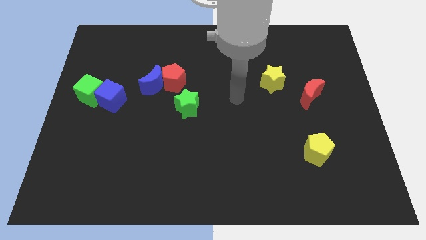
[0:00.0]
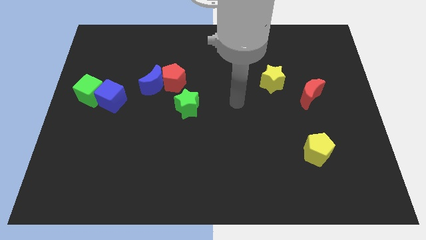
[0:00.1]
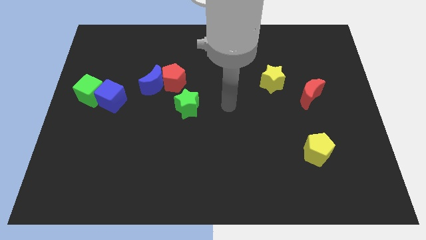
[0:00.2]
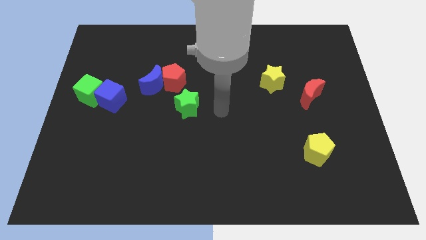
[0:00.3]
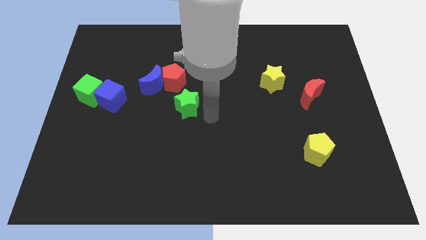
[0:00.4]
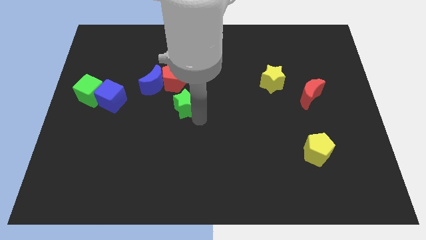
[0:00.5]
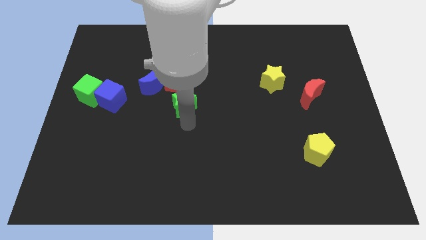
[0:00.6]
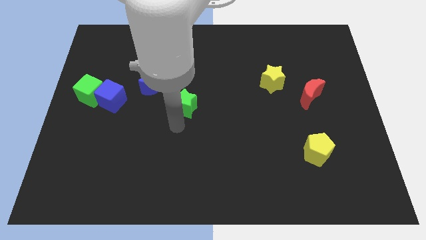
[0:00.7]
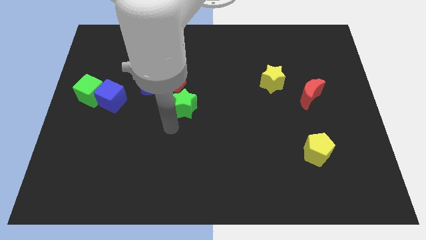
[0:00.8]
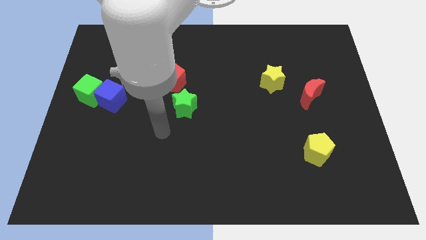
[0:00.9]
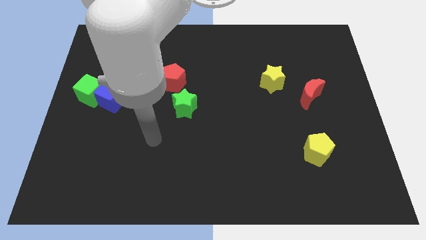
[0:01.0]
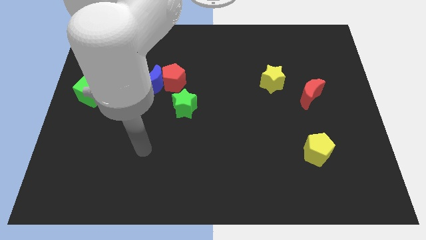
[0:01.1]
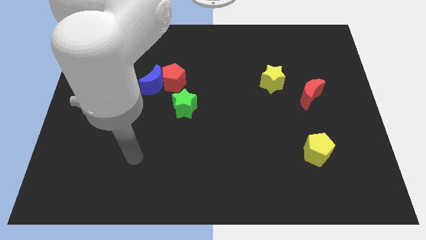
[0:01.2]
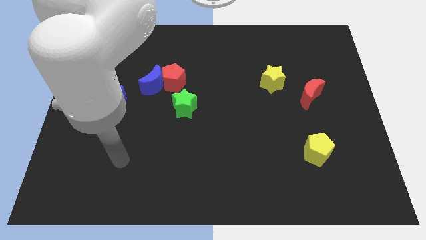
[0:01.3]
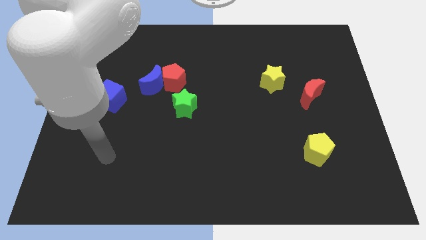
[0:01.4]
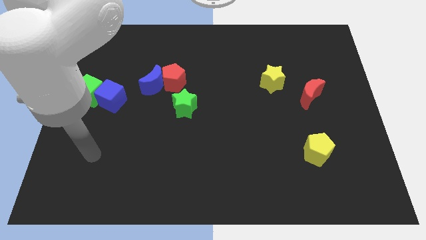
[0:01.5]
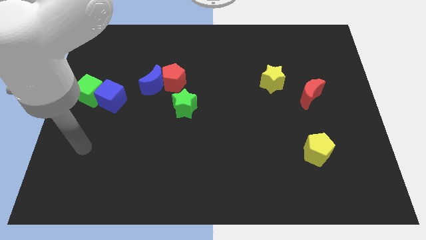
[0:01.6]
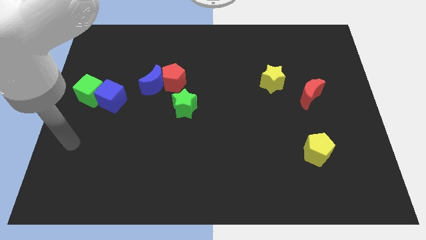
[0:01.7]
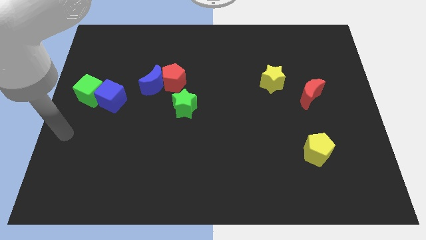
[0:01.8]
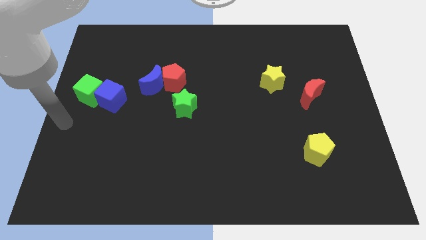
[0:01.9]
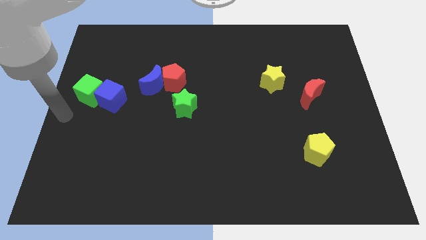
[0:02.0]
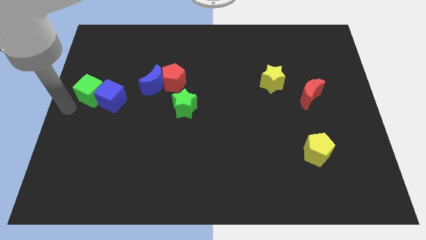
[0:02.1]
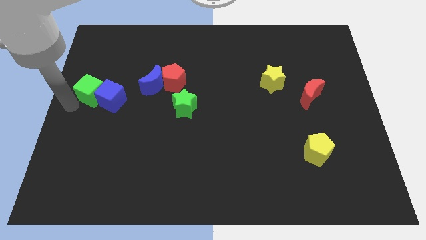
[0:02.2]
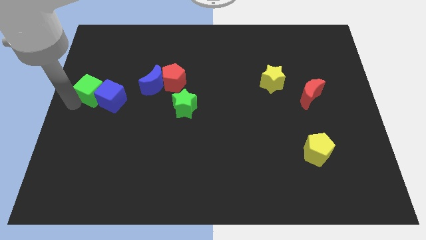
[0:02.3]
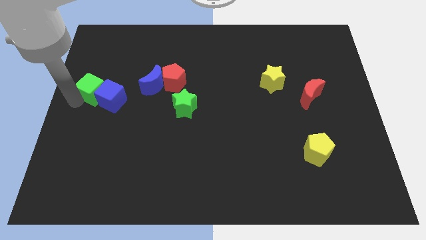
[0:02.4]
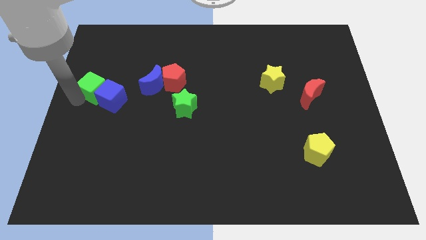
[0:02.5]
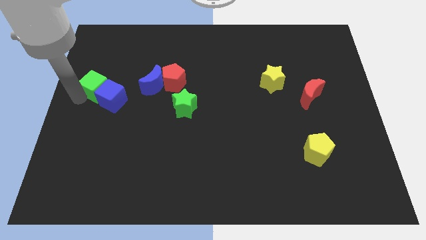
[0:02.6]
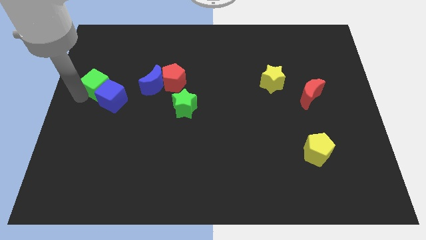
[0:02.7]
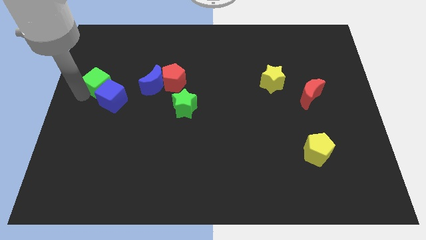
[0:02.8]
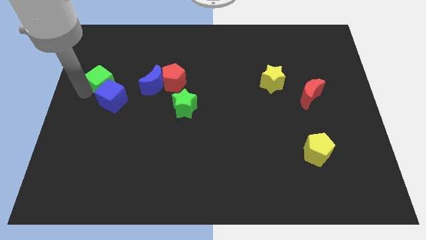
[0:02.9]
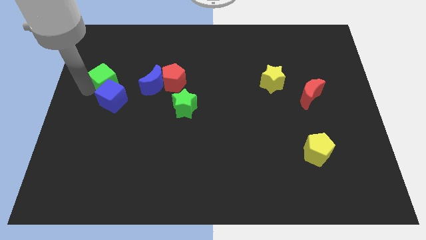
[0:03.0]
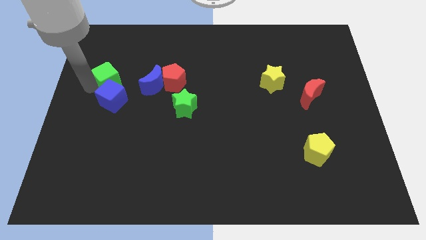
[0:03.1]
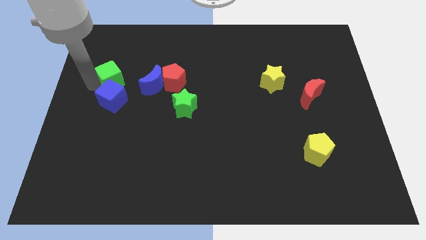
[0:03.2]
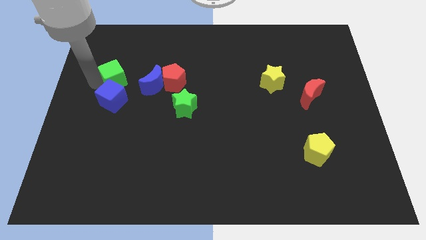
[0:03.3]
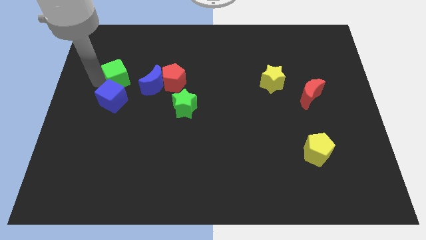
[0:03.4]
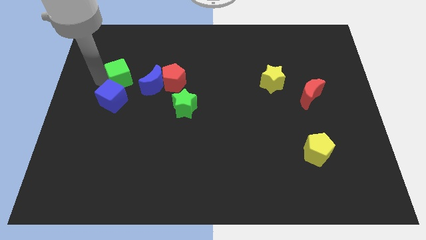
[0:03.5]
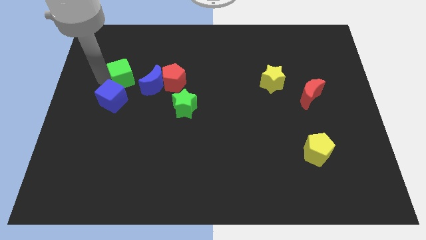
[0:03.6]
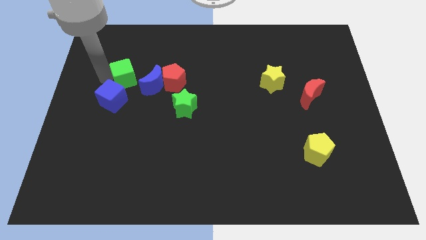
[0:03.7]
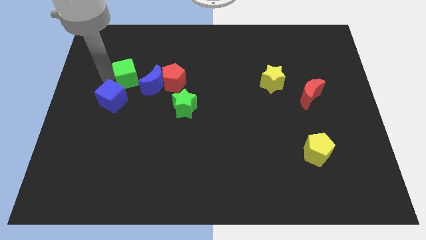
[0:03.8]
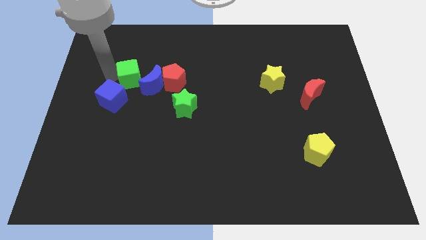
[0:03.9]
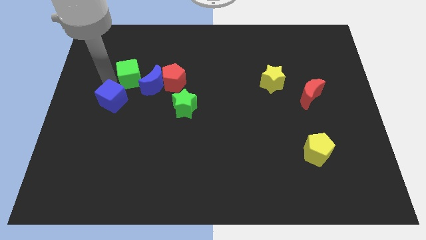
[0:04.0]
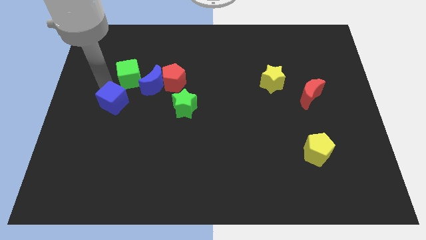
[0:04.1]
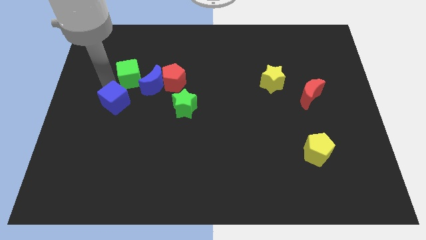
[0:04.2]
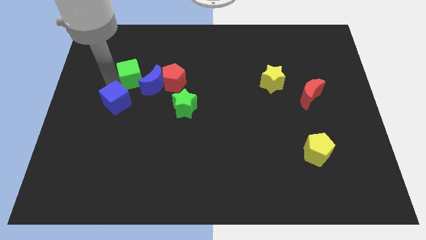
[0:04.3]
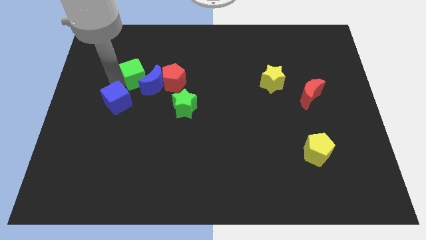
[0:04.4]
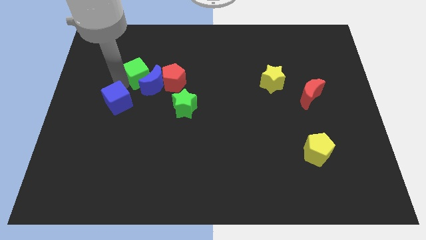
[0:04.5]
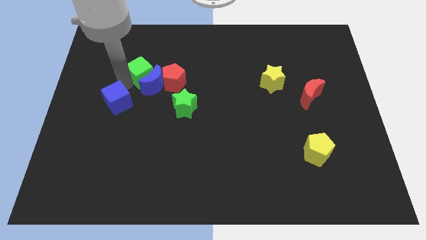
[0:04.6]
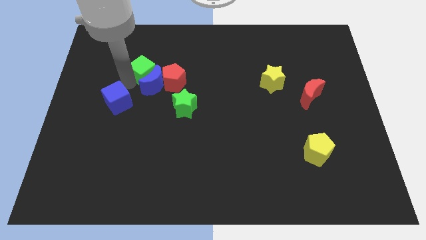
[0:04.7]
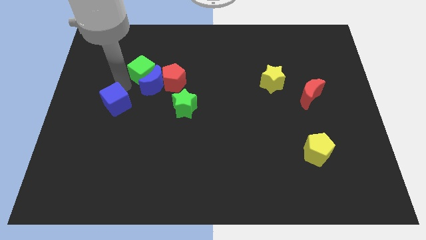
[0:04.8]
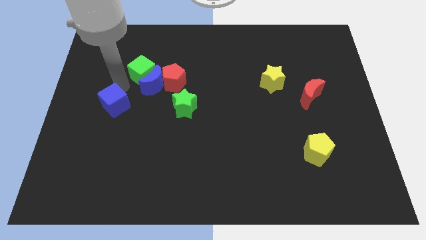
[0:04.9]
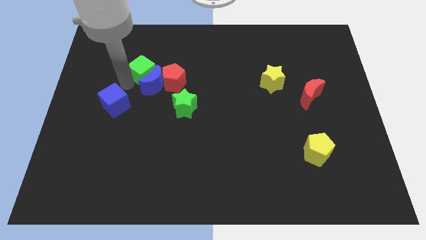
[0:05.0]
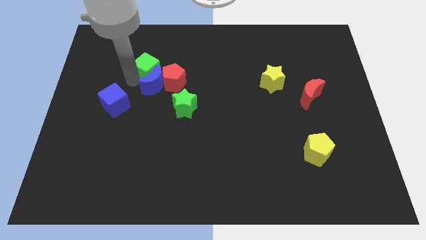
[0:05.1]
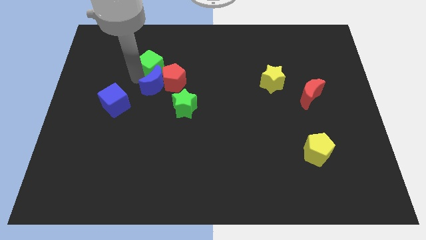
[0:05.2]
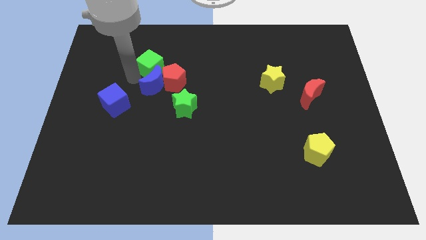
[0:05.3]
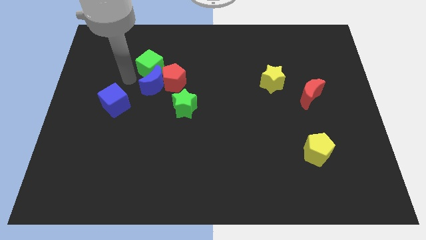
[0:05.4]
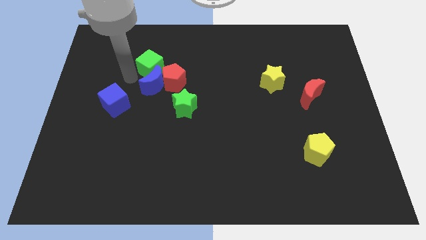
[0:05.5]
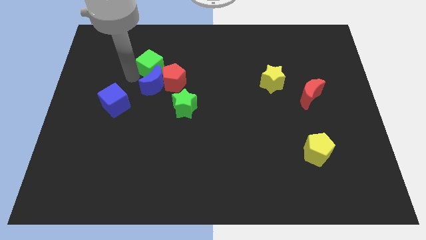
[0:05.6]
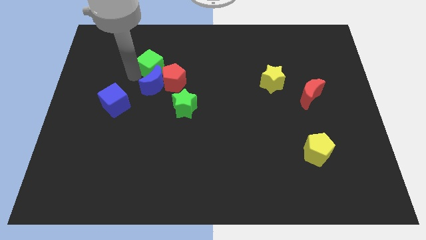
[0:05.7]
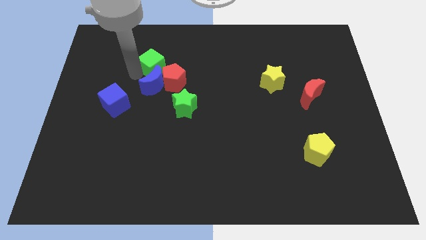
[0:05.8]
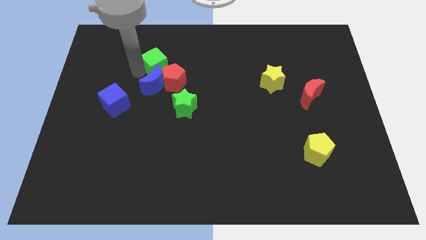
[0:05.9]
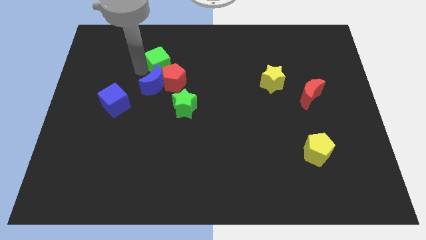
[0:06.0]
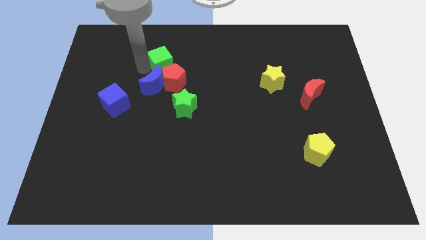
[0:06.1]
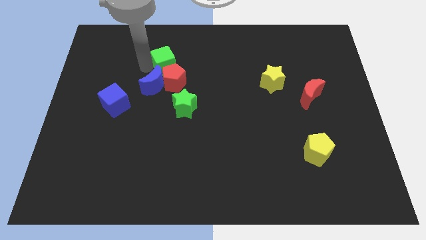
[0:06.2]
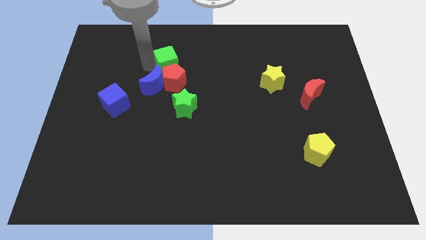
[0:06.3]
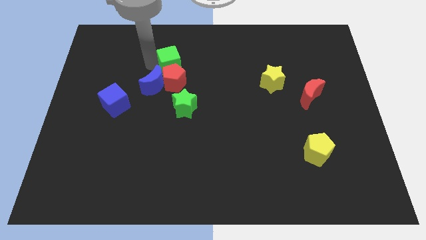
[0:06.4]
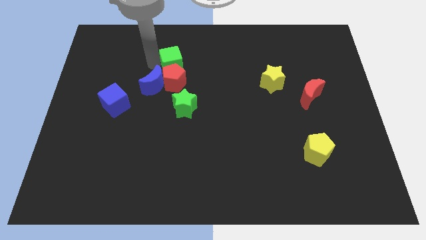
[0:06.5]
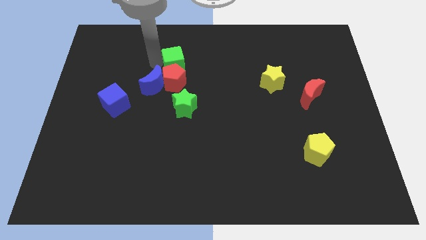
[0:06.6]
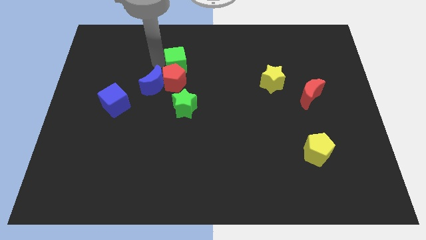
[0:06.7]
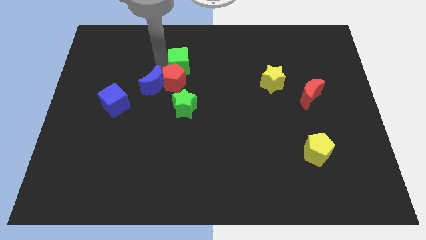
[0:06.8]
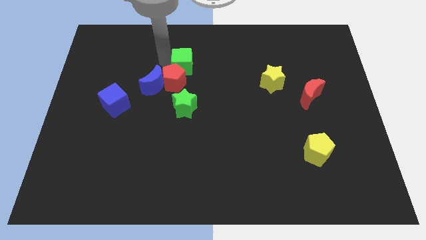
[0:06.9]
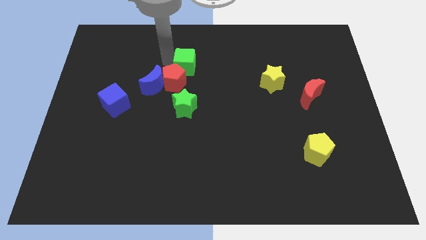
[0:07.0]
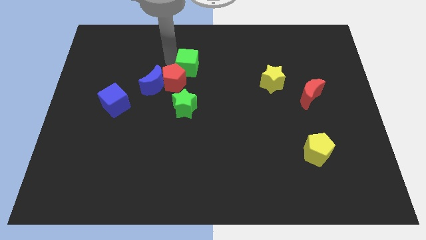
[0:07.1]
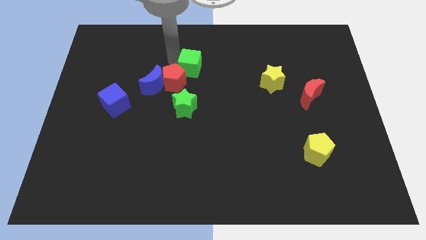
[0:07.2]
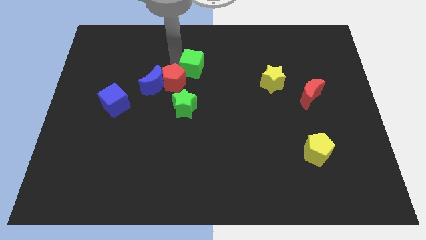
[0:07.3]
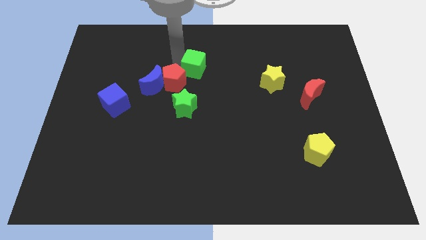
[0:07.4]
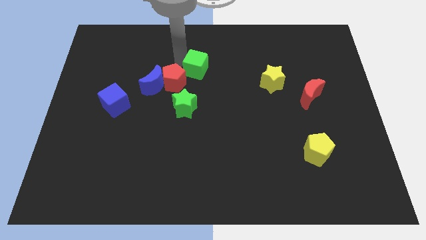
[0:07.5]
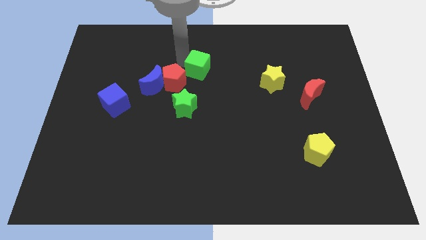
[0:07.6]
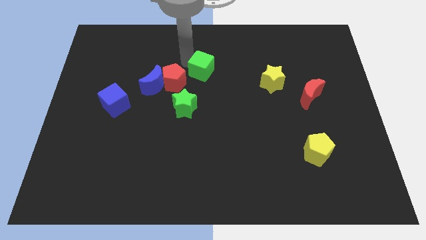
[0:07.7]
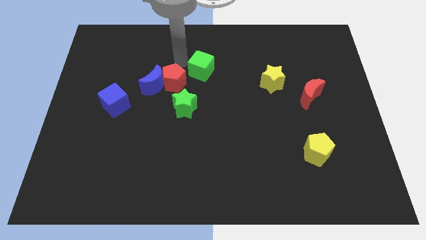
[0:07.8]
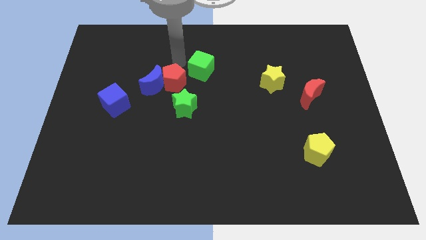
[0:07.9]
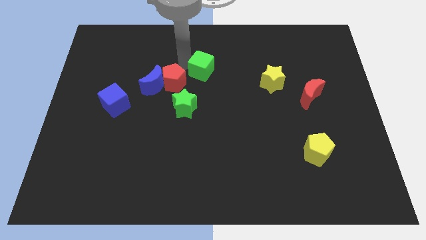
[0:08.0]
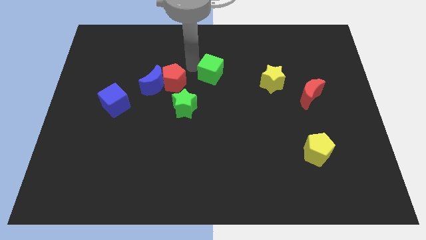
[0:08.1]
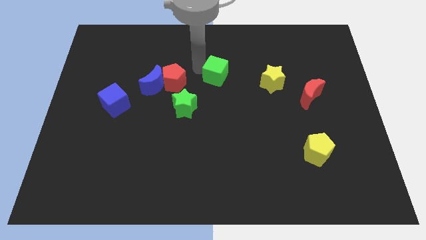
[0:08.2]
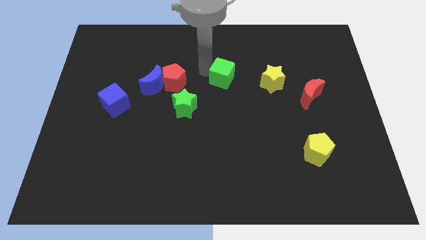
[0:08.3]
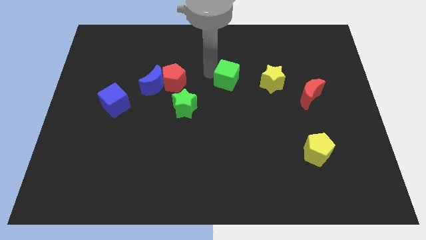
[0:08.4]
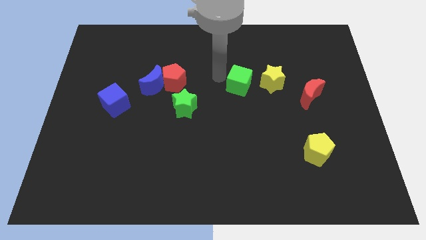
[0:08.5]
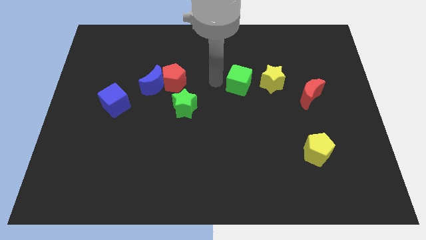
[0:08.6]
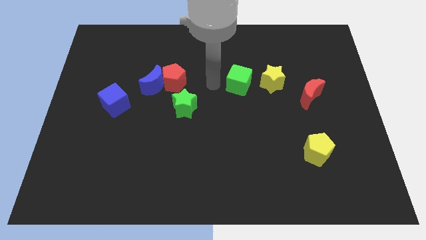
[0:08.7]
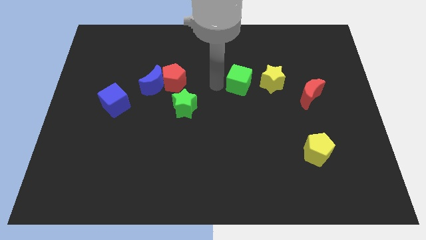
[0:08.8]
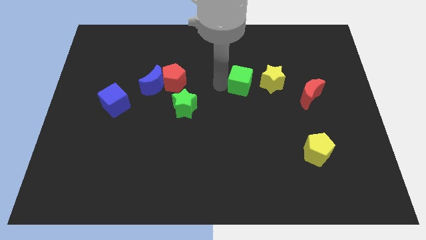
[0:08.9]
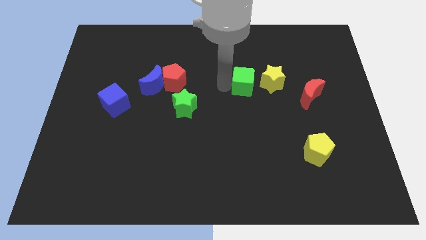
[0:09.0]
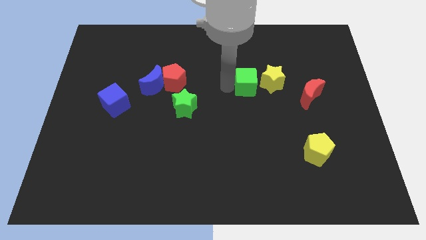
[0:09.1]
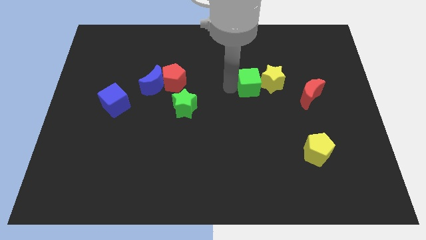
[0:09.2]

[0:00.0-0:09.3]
move the green cube to the yellow star
